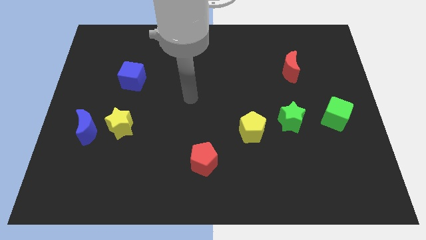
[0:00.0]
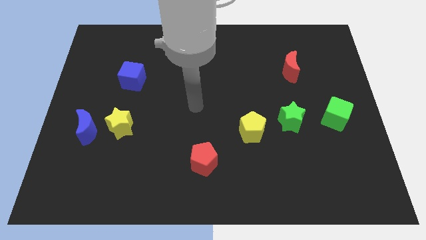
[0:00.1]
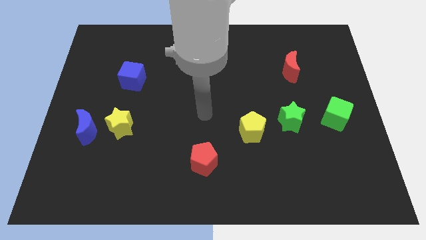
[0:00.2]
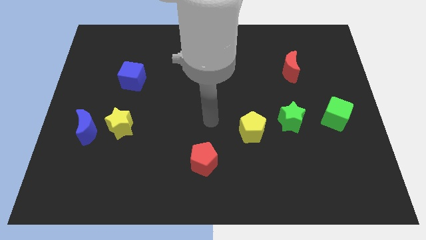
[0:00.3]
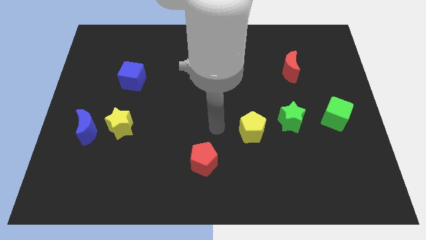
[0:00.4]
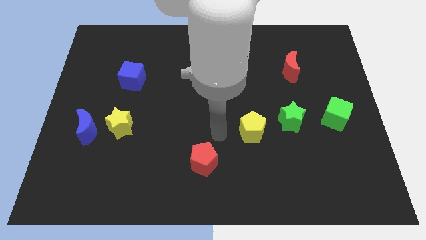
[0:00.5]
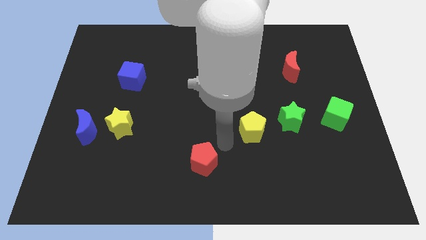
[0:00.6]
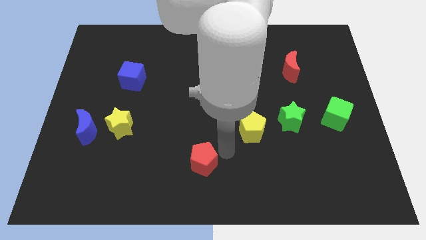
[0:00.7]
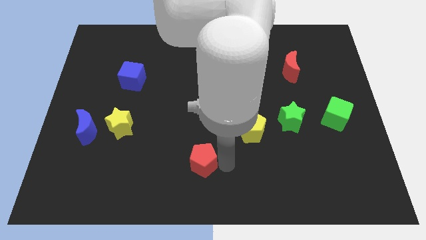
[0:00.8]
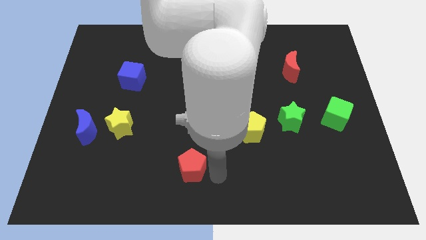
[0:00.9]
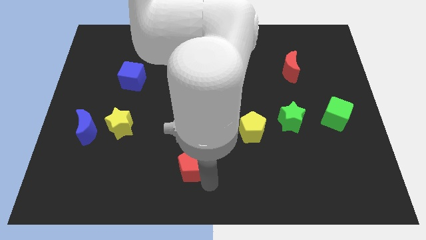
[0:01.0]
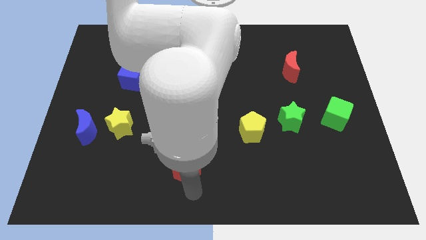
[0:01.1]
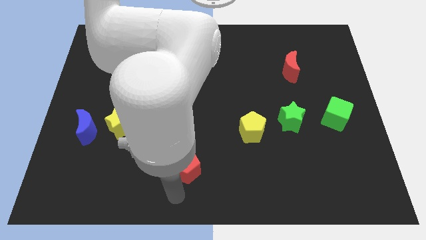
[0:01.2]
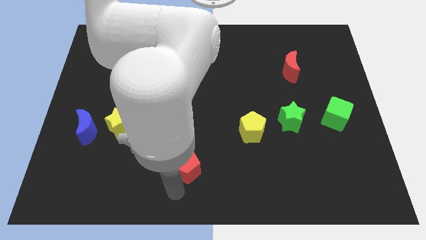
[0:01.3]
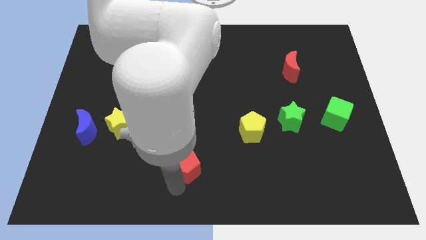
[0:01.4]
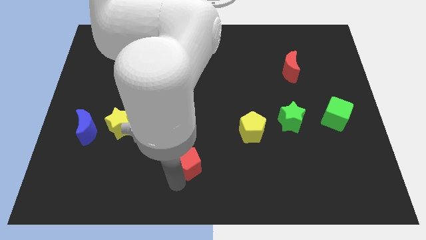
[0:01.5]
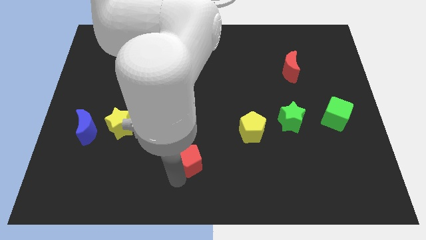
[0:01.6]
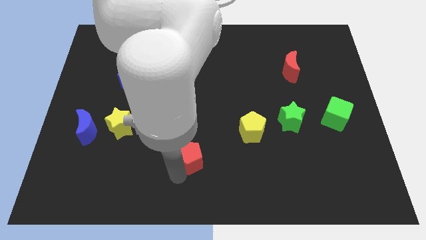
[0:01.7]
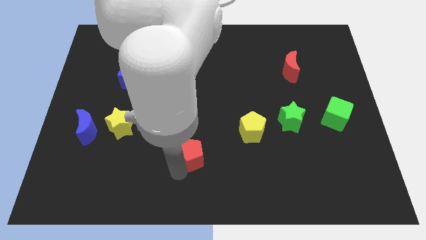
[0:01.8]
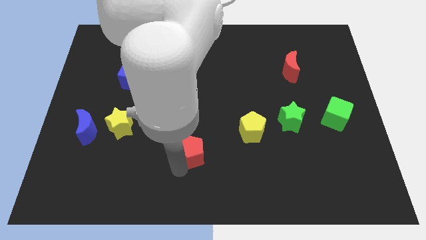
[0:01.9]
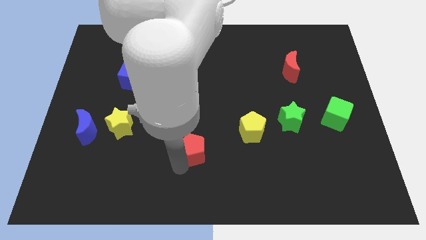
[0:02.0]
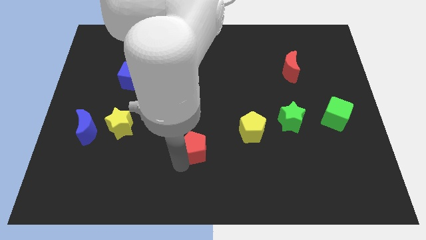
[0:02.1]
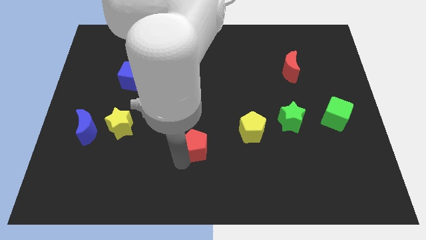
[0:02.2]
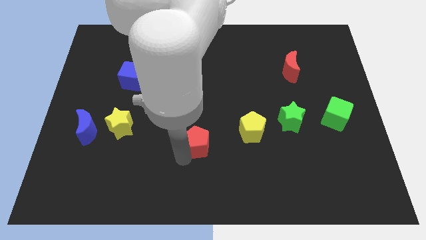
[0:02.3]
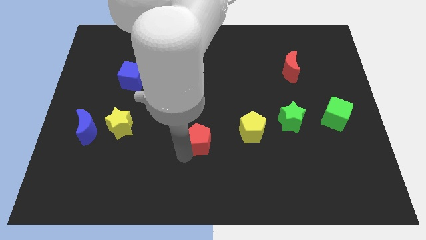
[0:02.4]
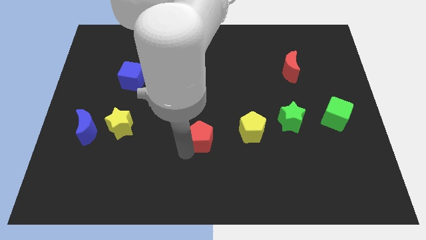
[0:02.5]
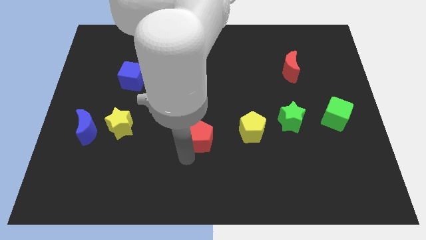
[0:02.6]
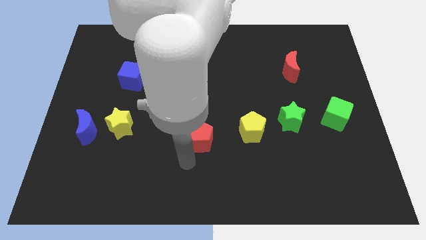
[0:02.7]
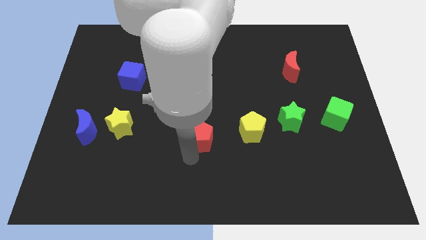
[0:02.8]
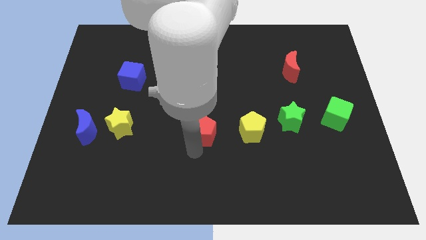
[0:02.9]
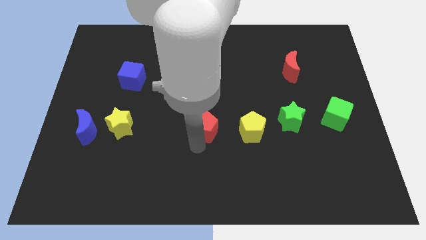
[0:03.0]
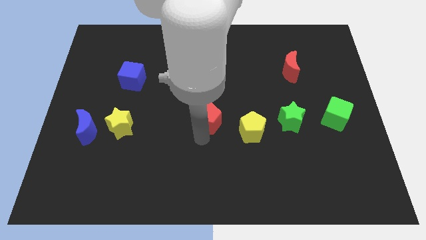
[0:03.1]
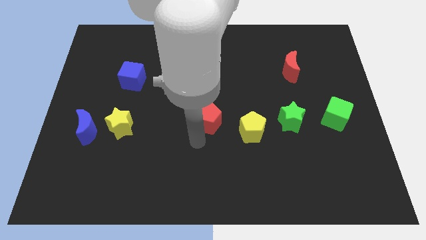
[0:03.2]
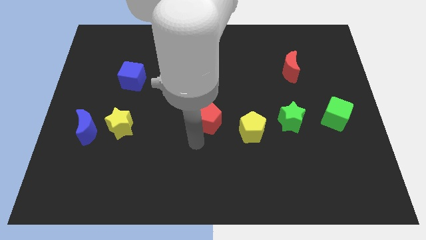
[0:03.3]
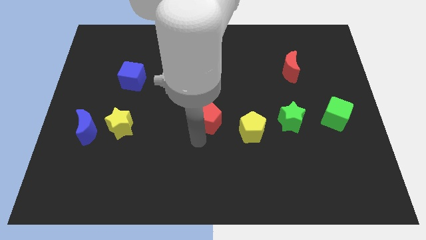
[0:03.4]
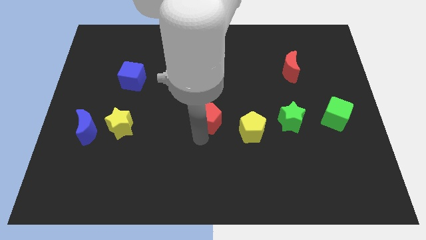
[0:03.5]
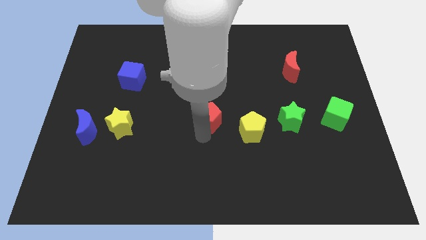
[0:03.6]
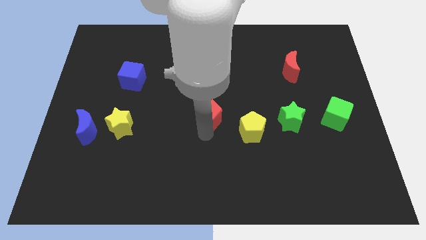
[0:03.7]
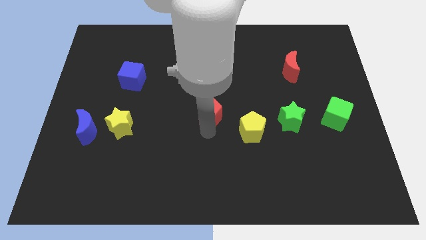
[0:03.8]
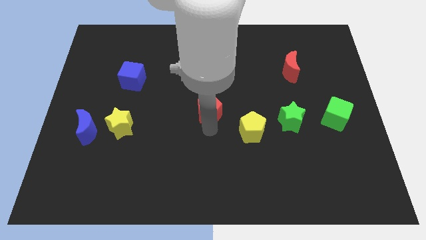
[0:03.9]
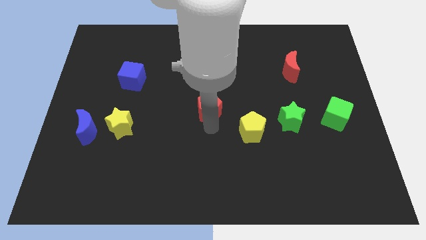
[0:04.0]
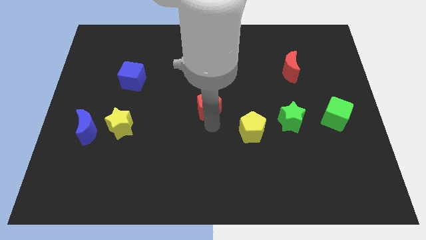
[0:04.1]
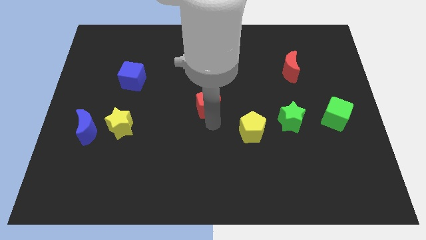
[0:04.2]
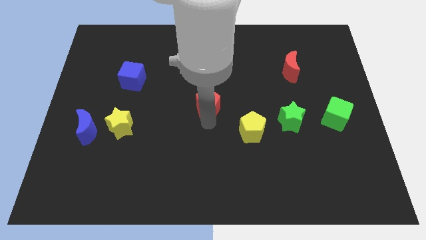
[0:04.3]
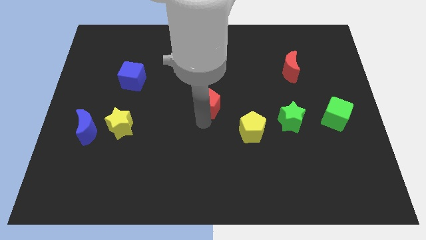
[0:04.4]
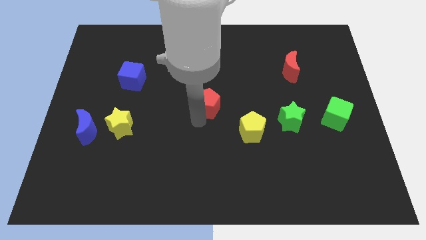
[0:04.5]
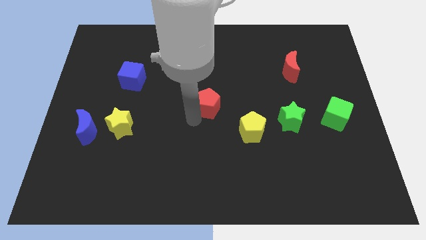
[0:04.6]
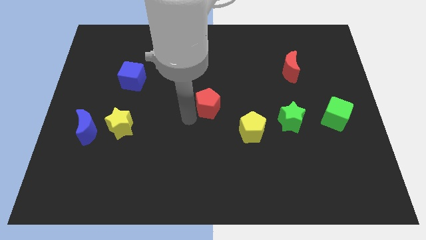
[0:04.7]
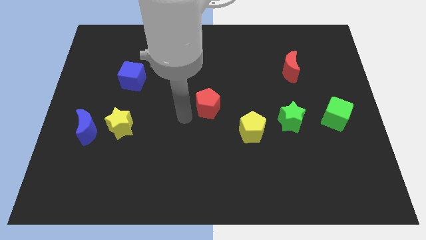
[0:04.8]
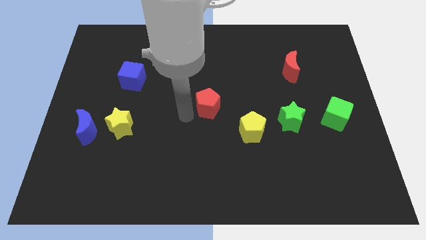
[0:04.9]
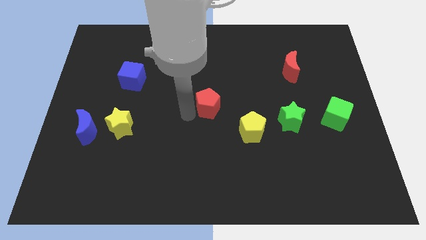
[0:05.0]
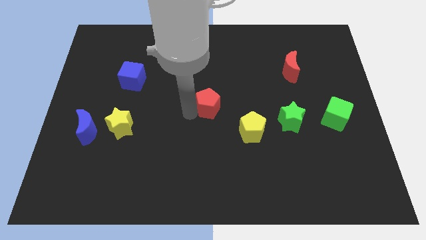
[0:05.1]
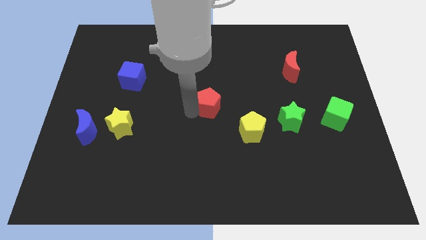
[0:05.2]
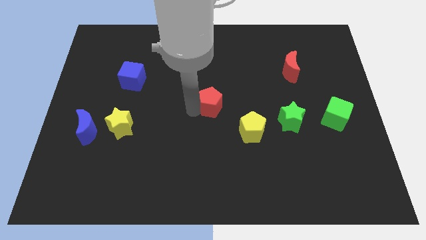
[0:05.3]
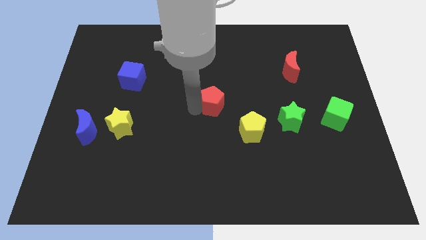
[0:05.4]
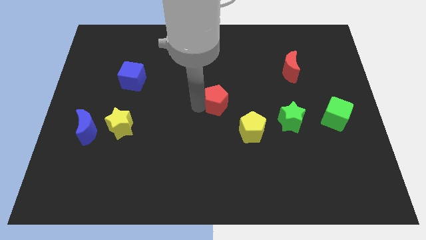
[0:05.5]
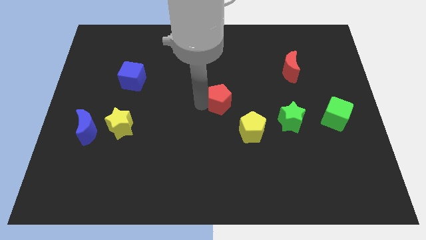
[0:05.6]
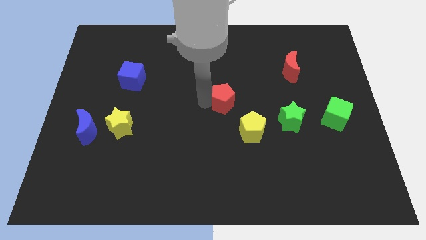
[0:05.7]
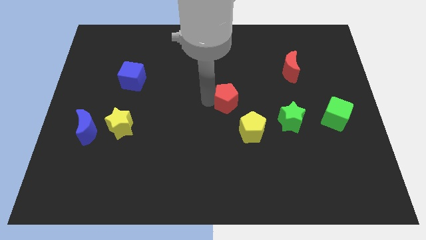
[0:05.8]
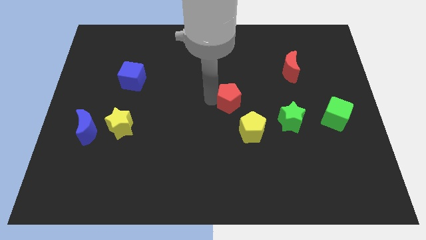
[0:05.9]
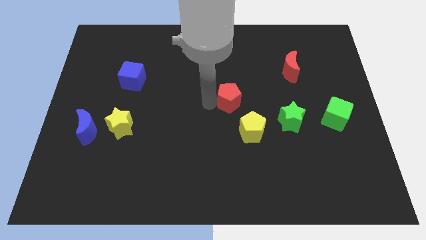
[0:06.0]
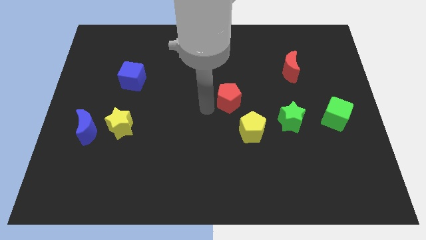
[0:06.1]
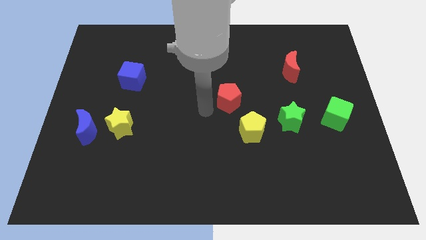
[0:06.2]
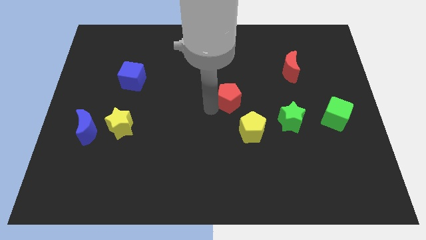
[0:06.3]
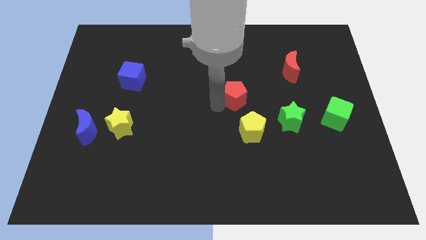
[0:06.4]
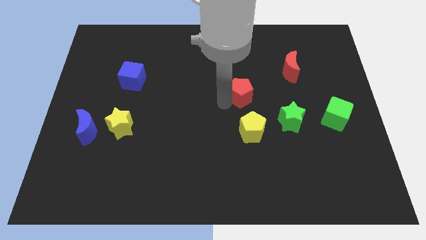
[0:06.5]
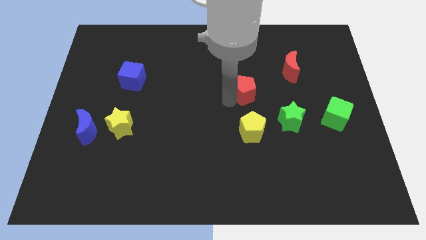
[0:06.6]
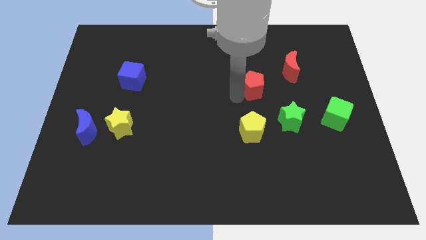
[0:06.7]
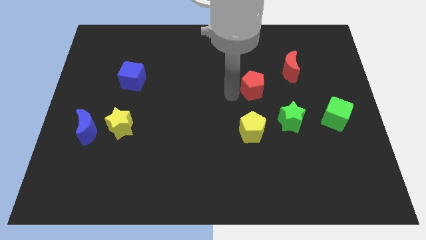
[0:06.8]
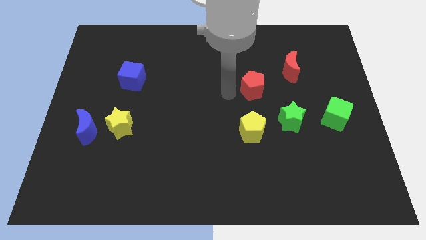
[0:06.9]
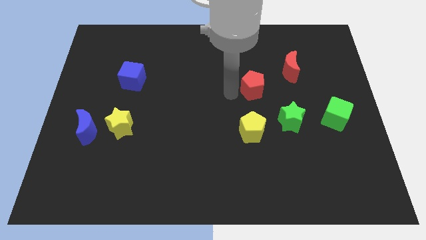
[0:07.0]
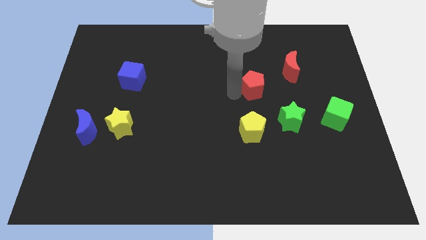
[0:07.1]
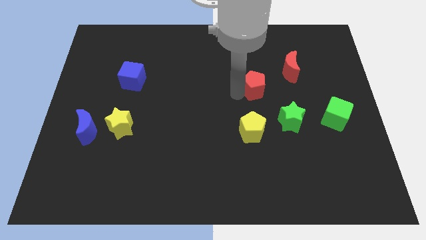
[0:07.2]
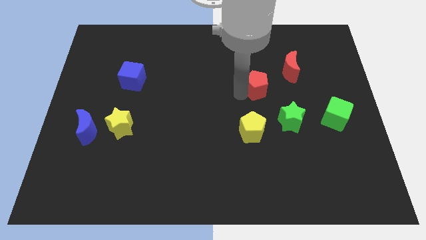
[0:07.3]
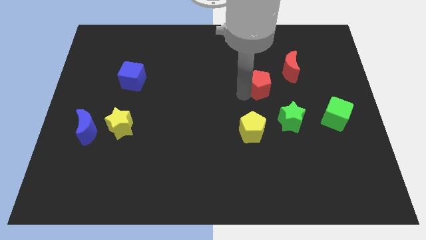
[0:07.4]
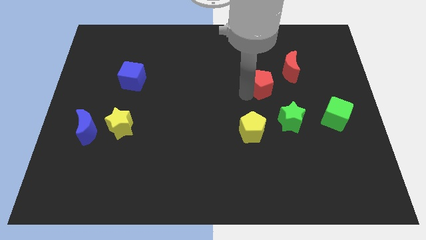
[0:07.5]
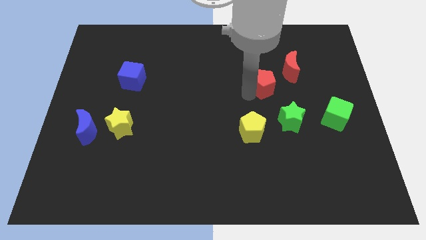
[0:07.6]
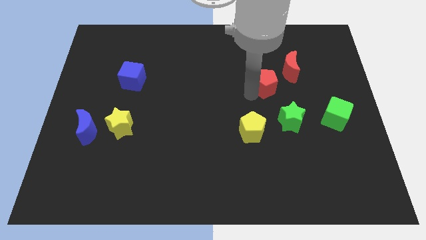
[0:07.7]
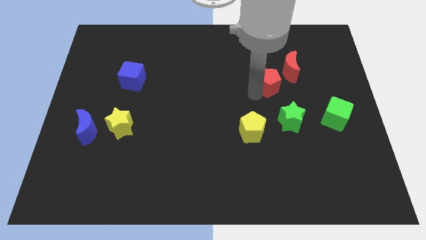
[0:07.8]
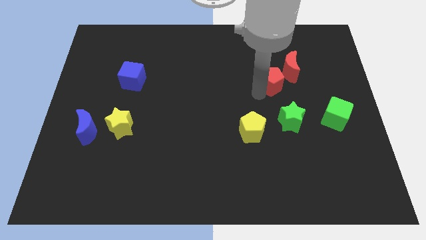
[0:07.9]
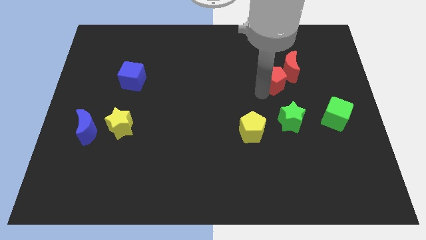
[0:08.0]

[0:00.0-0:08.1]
put the red pentagon towards the red moon
